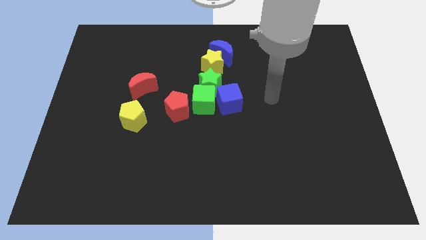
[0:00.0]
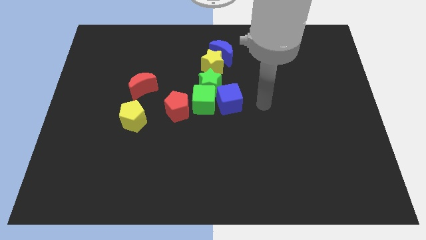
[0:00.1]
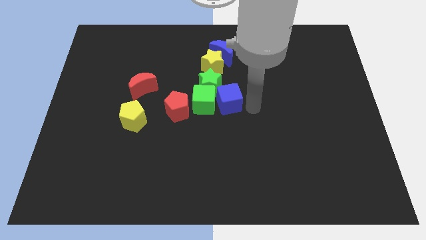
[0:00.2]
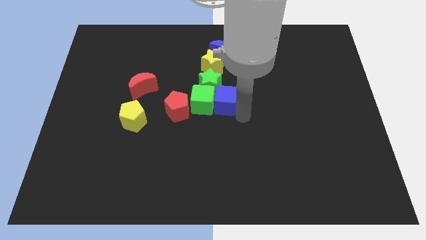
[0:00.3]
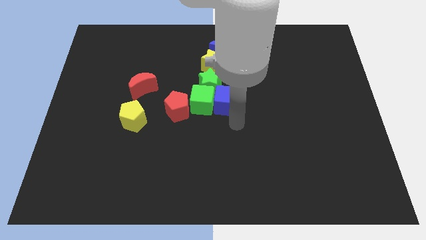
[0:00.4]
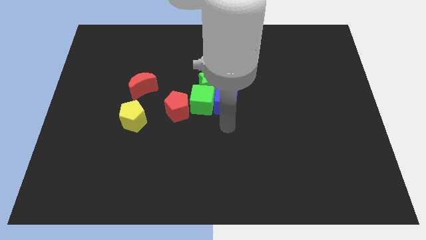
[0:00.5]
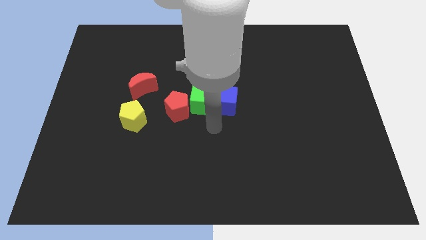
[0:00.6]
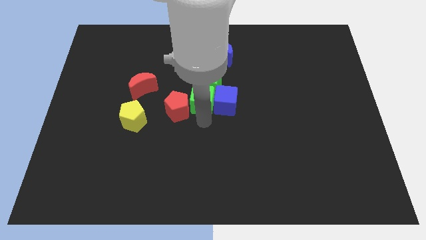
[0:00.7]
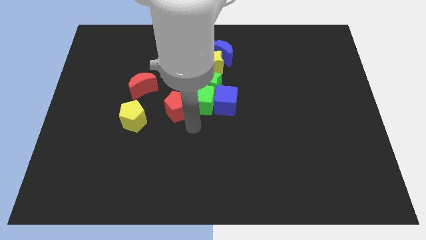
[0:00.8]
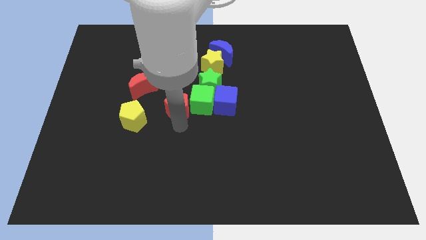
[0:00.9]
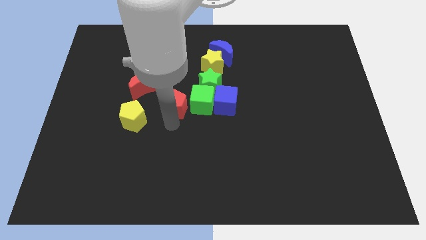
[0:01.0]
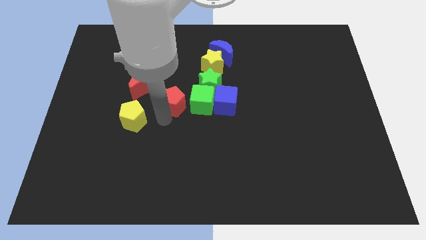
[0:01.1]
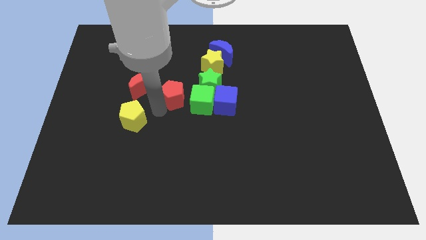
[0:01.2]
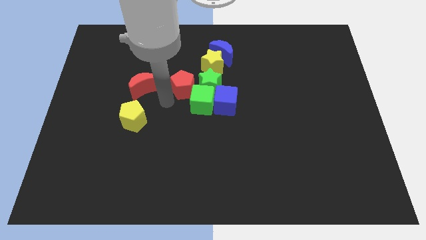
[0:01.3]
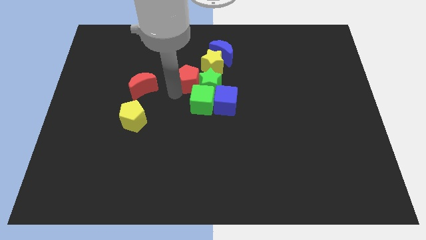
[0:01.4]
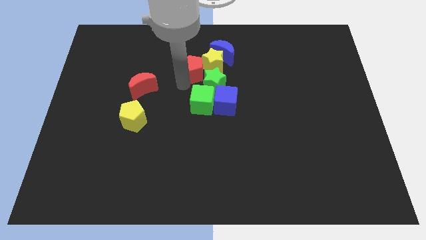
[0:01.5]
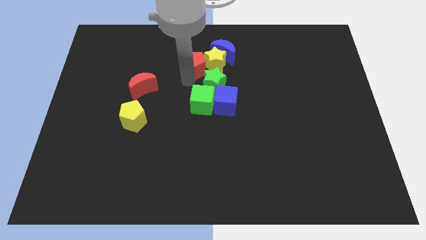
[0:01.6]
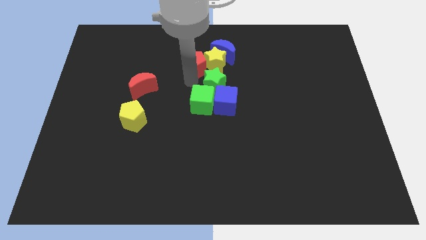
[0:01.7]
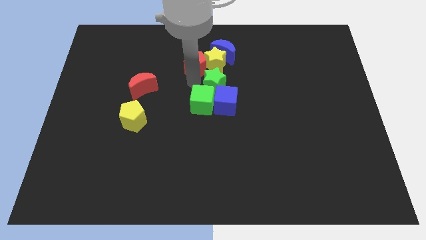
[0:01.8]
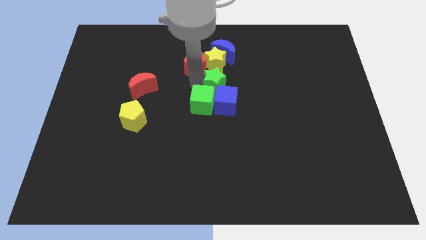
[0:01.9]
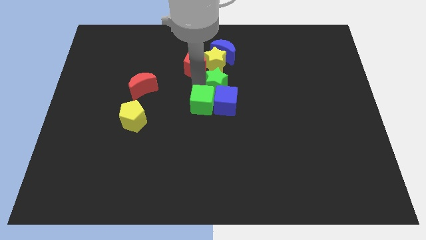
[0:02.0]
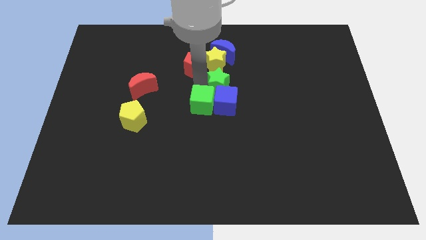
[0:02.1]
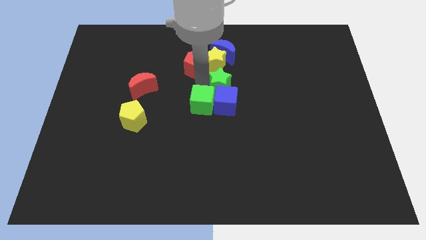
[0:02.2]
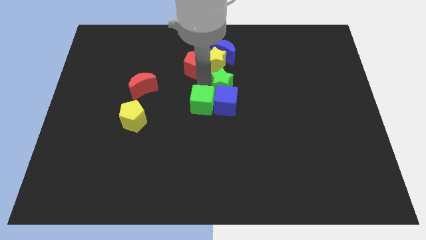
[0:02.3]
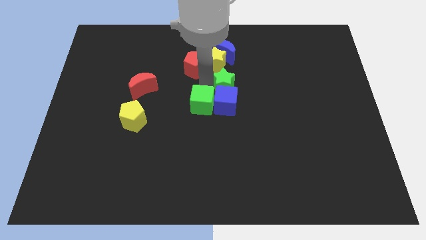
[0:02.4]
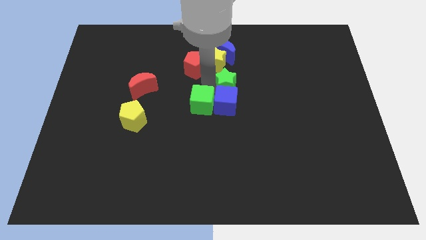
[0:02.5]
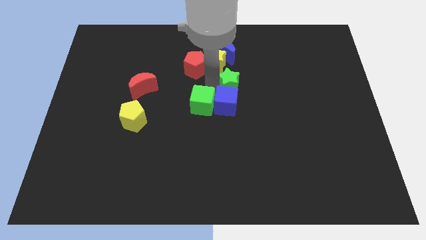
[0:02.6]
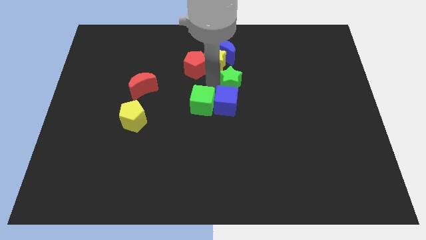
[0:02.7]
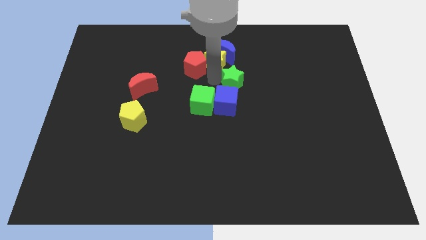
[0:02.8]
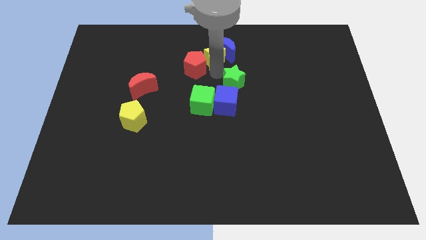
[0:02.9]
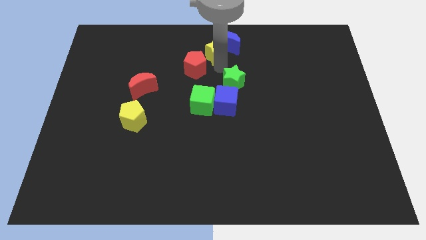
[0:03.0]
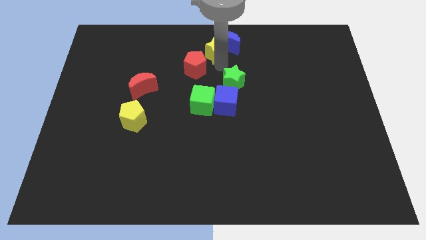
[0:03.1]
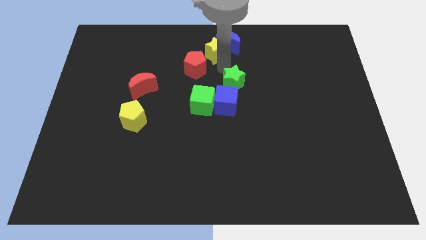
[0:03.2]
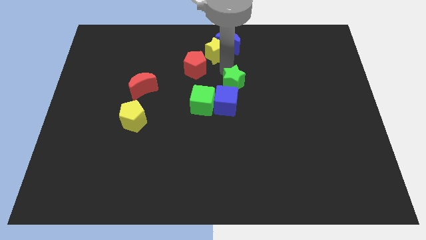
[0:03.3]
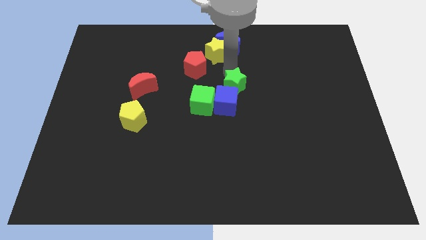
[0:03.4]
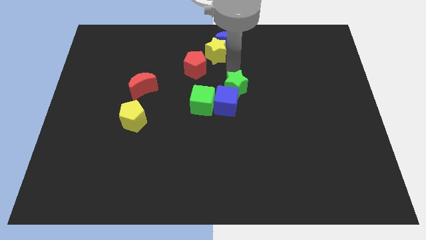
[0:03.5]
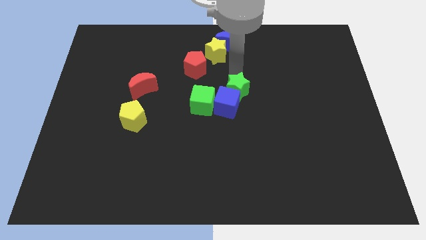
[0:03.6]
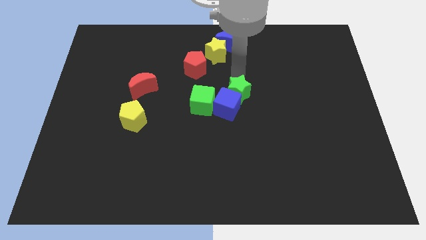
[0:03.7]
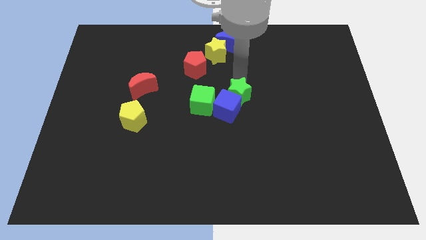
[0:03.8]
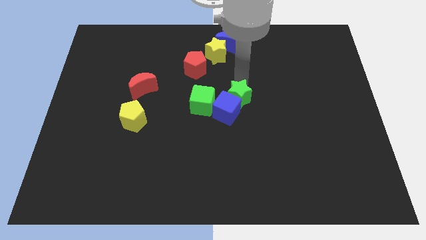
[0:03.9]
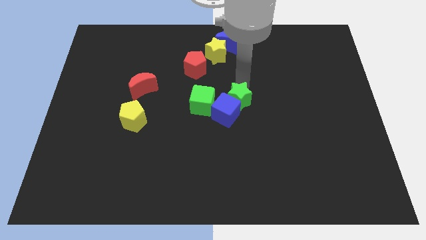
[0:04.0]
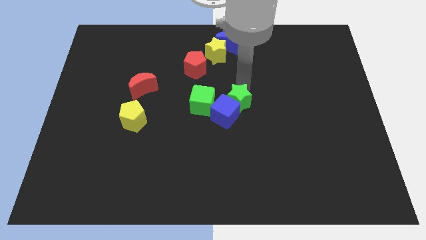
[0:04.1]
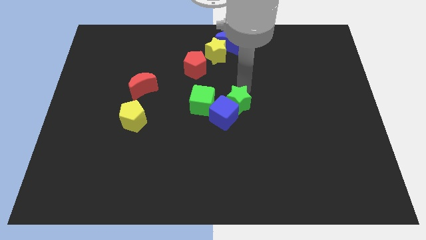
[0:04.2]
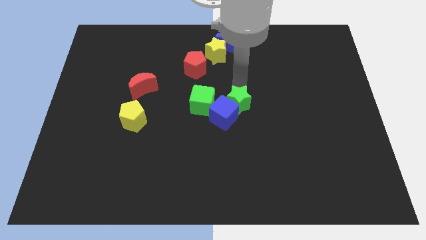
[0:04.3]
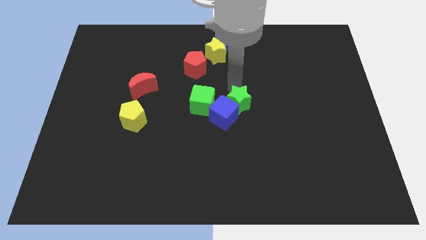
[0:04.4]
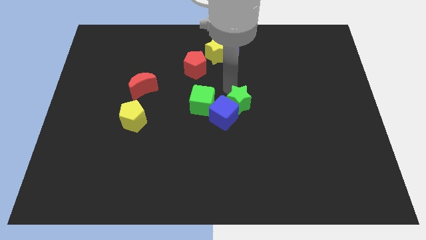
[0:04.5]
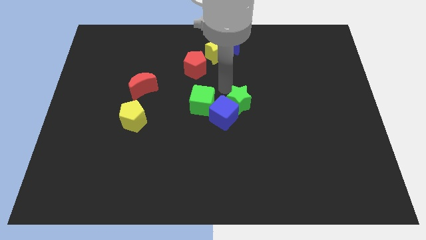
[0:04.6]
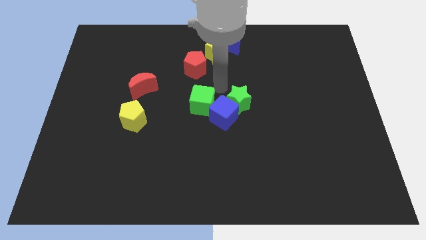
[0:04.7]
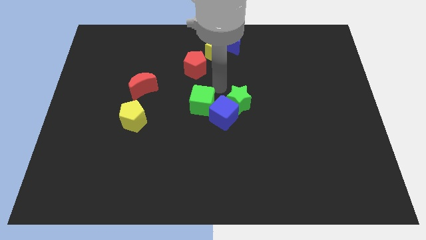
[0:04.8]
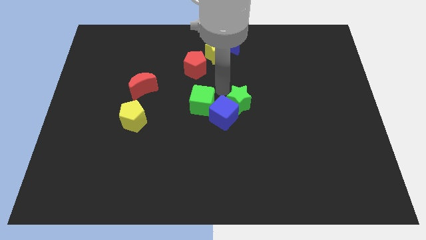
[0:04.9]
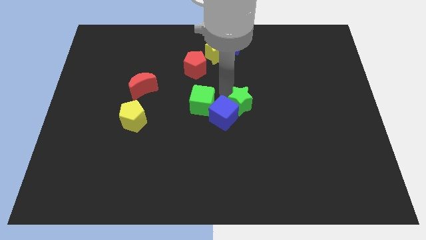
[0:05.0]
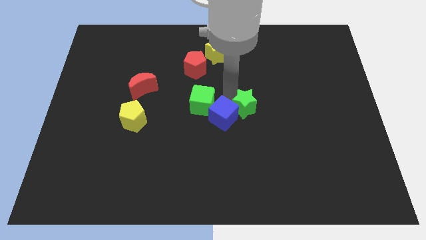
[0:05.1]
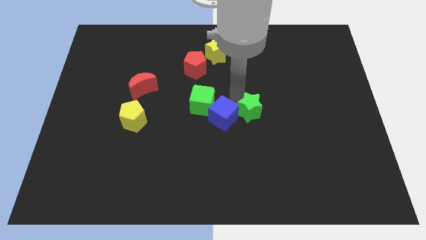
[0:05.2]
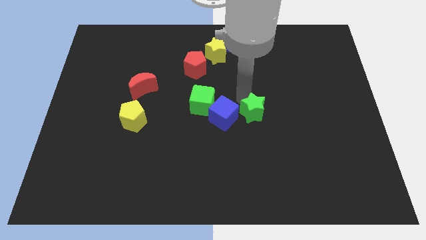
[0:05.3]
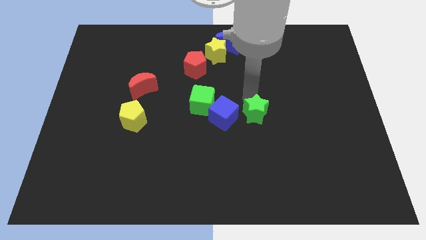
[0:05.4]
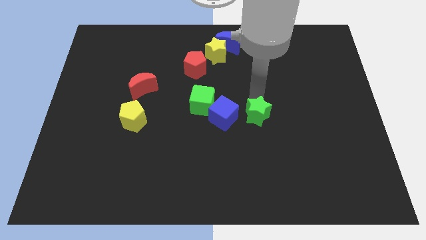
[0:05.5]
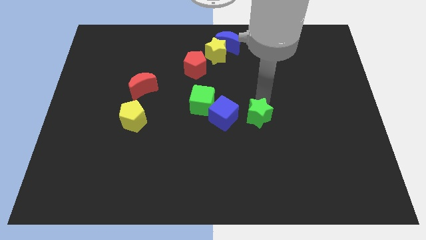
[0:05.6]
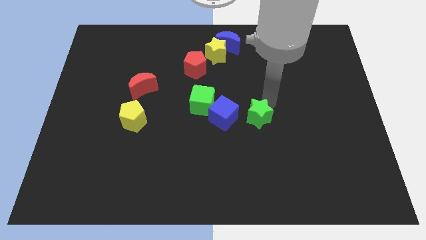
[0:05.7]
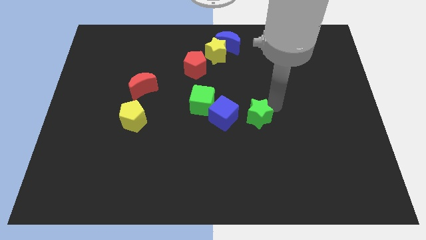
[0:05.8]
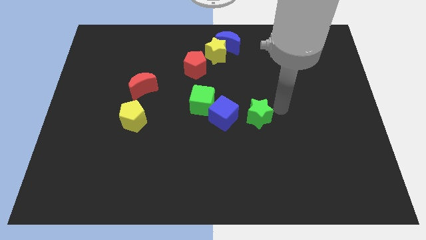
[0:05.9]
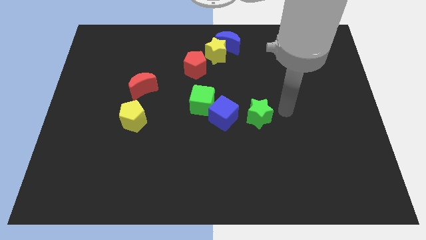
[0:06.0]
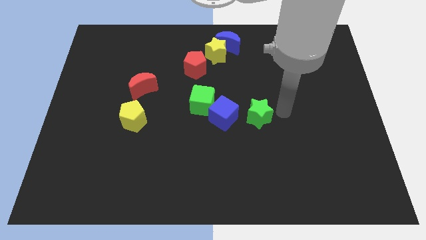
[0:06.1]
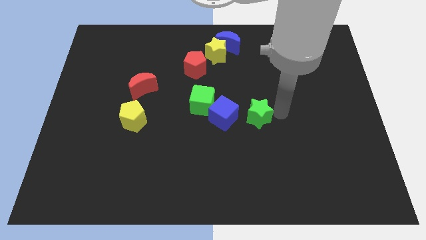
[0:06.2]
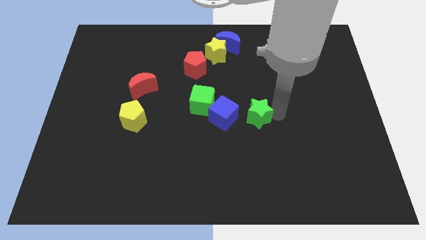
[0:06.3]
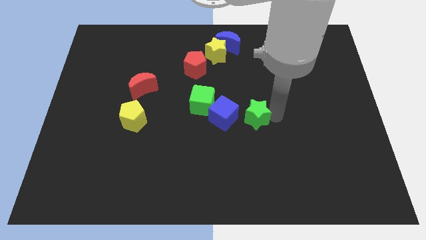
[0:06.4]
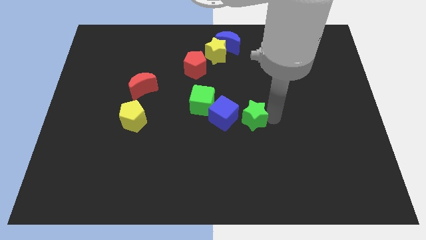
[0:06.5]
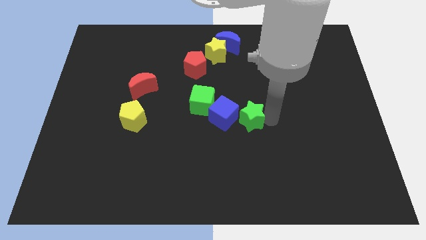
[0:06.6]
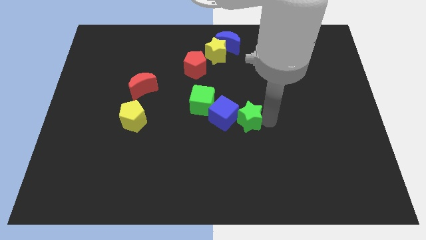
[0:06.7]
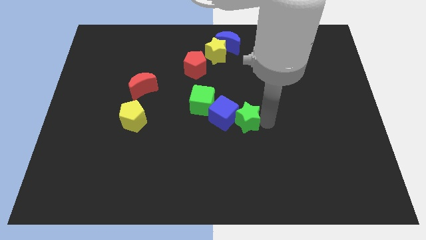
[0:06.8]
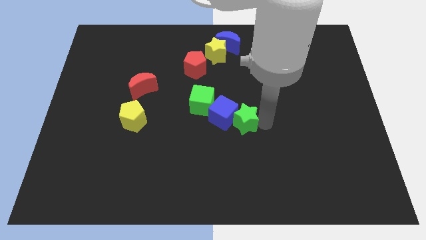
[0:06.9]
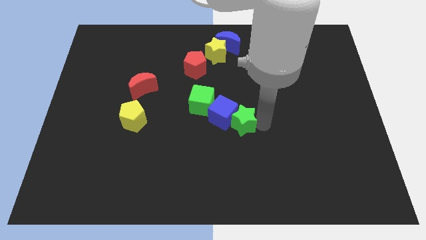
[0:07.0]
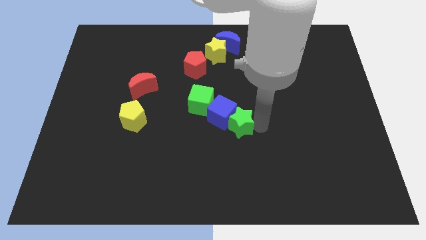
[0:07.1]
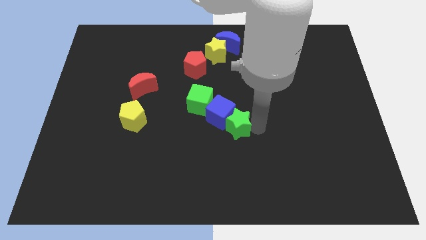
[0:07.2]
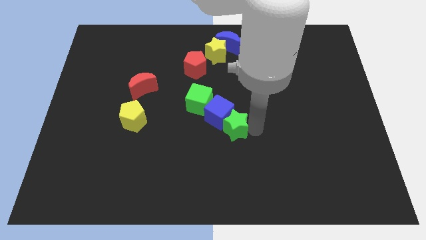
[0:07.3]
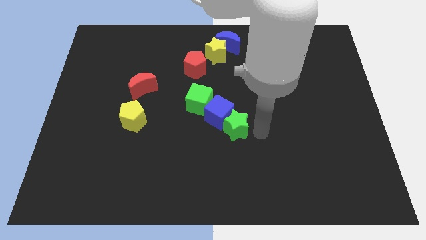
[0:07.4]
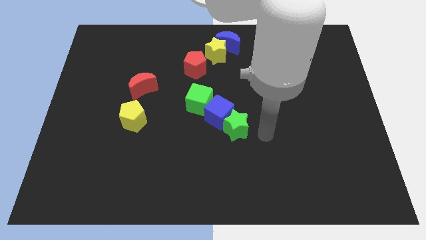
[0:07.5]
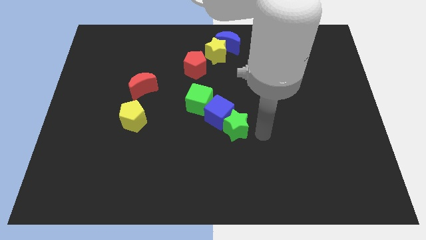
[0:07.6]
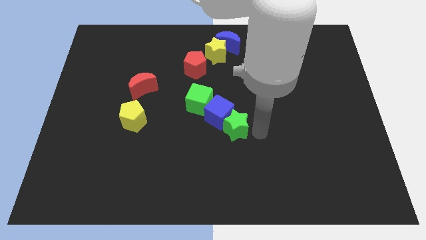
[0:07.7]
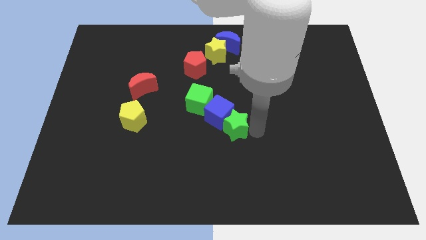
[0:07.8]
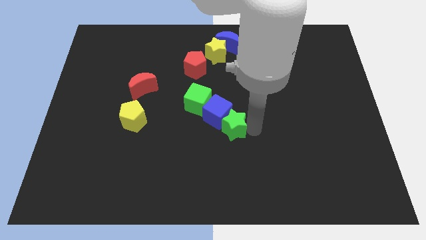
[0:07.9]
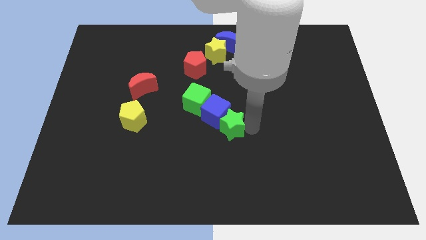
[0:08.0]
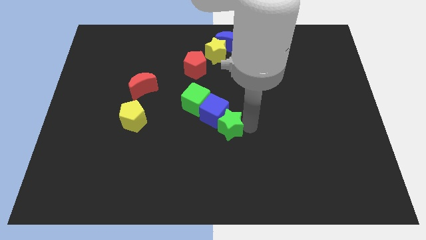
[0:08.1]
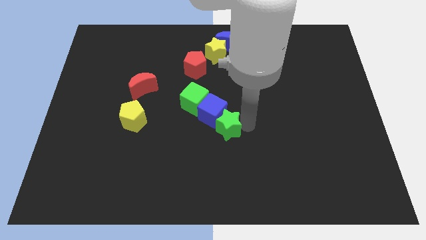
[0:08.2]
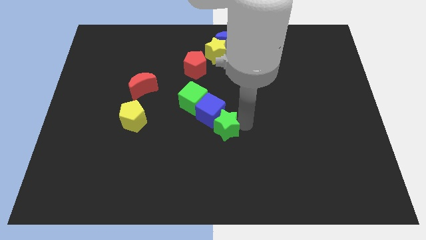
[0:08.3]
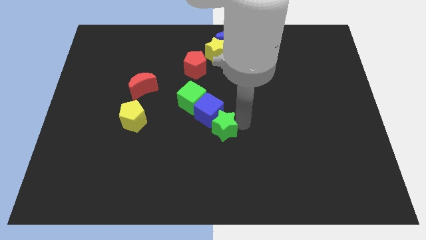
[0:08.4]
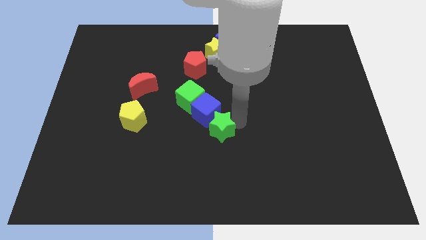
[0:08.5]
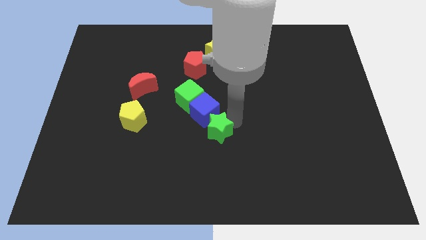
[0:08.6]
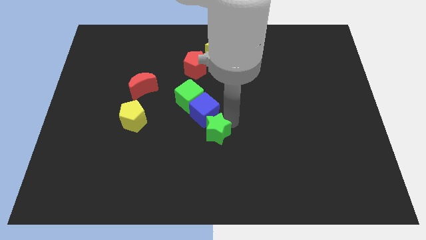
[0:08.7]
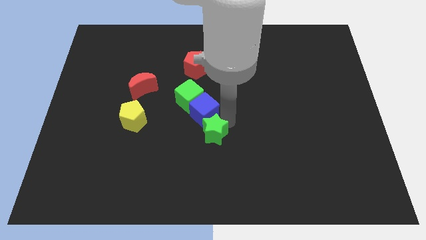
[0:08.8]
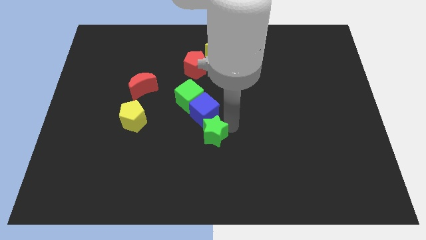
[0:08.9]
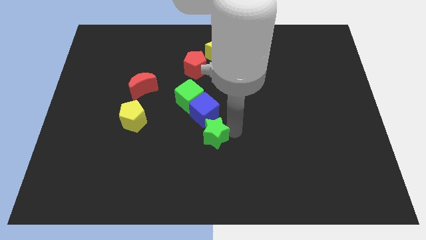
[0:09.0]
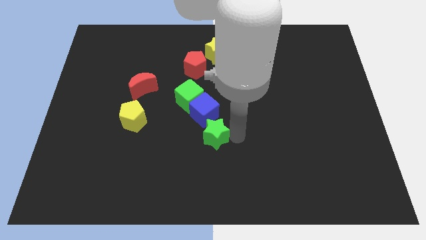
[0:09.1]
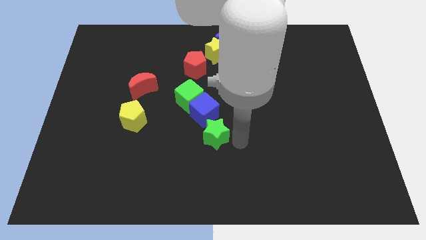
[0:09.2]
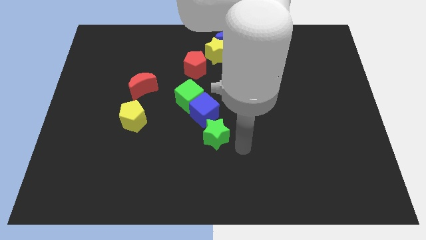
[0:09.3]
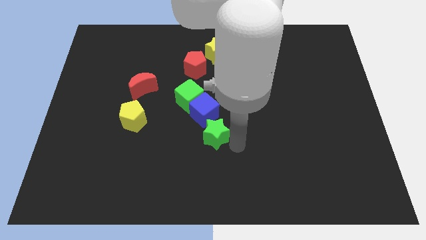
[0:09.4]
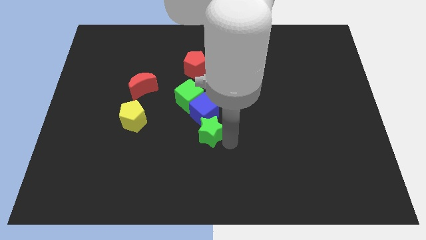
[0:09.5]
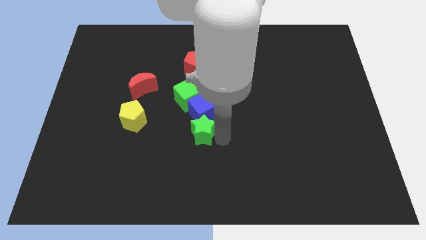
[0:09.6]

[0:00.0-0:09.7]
move the green star somewhat down and left diagonally
